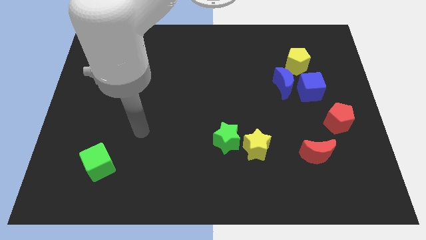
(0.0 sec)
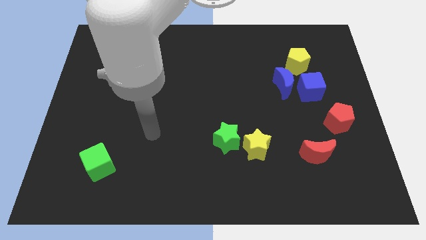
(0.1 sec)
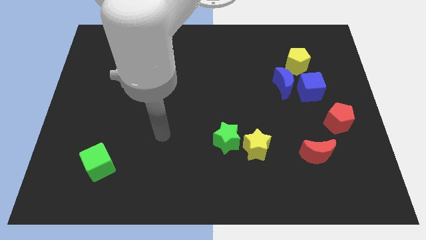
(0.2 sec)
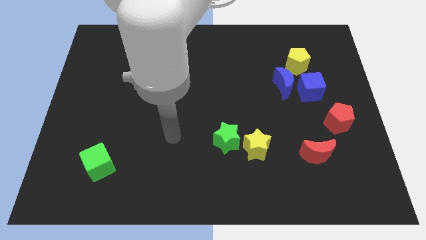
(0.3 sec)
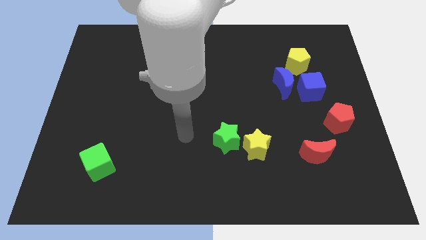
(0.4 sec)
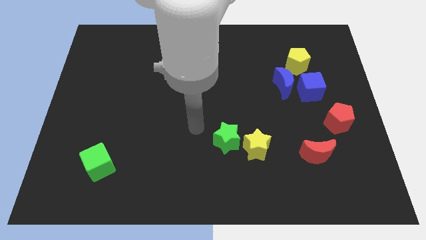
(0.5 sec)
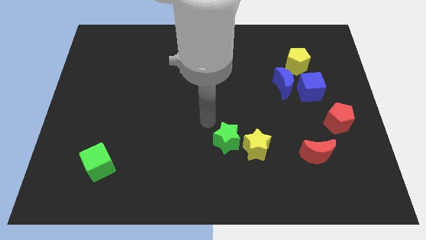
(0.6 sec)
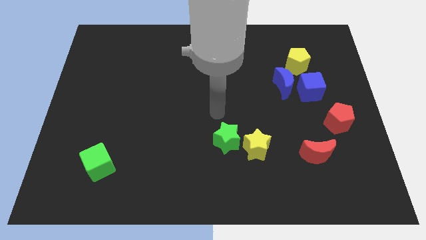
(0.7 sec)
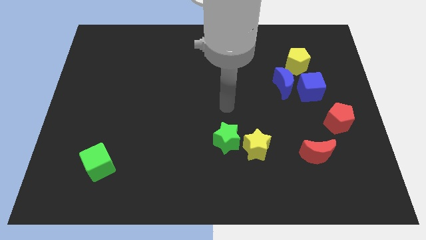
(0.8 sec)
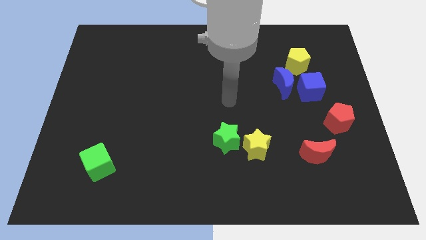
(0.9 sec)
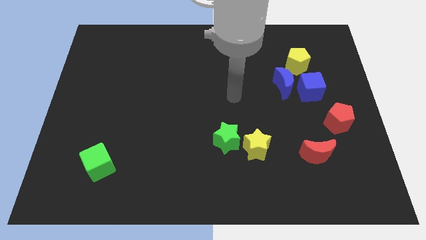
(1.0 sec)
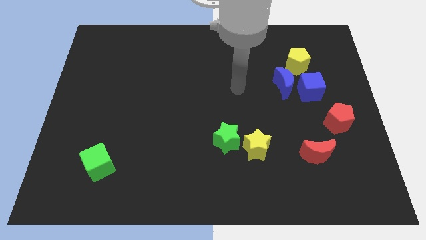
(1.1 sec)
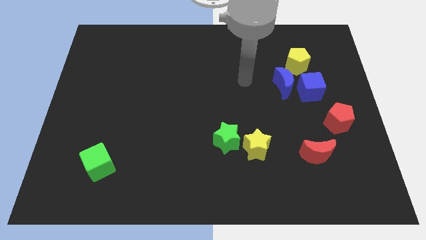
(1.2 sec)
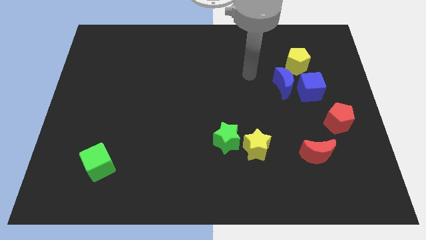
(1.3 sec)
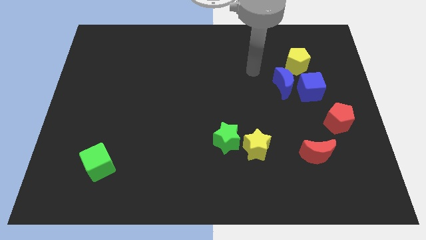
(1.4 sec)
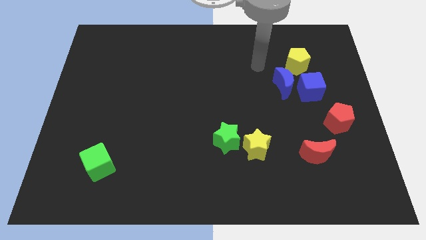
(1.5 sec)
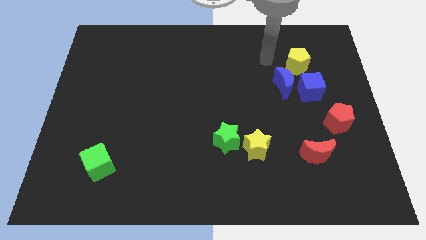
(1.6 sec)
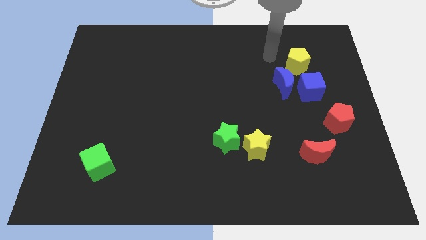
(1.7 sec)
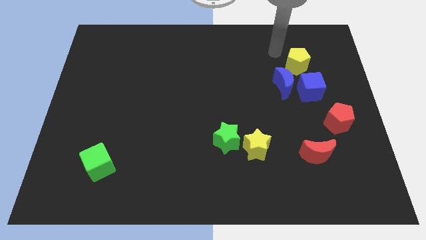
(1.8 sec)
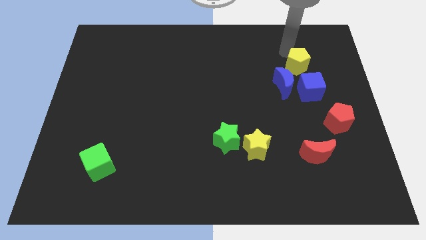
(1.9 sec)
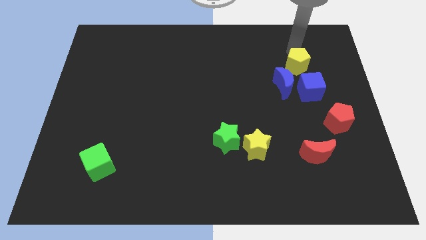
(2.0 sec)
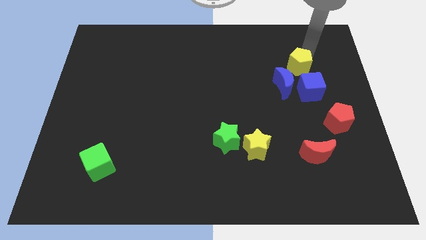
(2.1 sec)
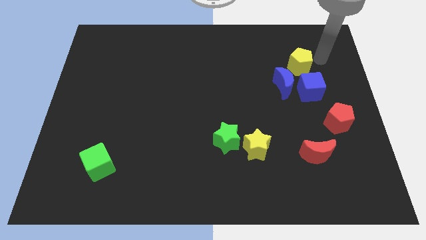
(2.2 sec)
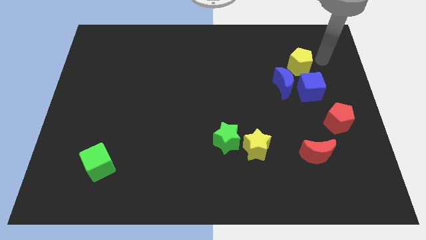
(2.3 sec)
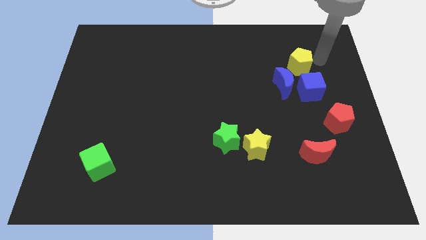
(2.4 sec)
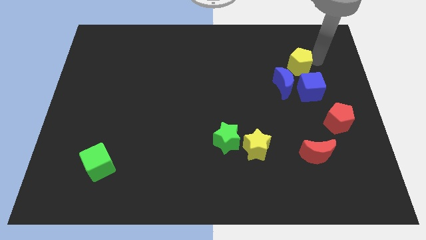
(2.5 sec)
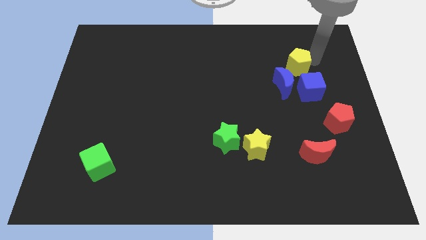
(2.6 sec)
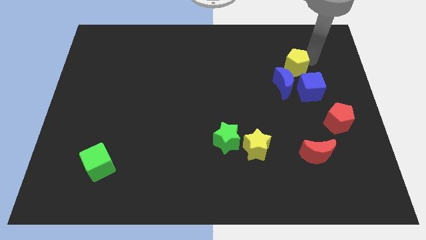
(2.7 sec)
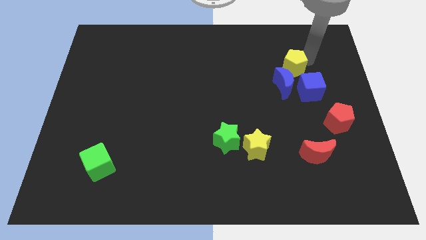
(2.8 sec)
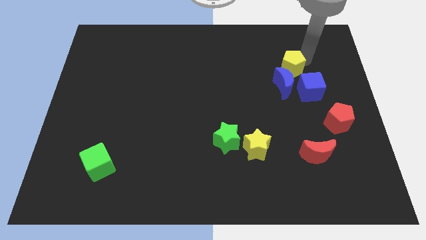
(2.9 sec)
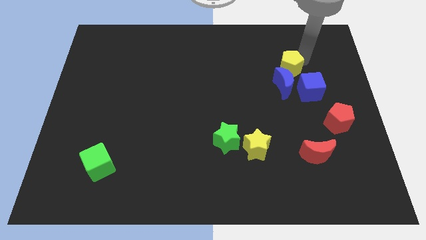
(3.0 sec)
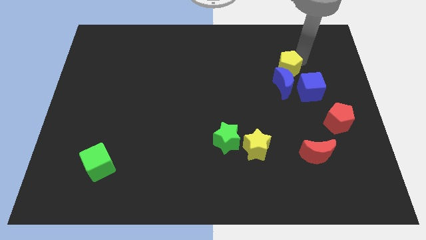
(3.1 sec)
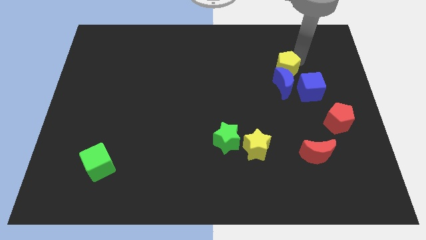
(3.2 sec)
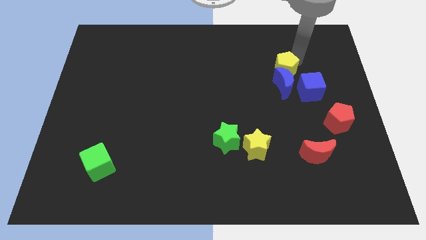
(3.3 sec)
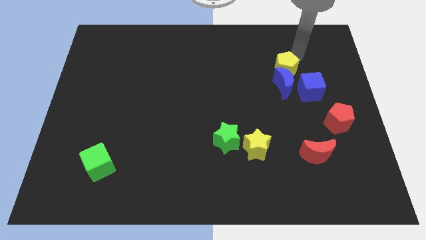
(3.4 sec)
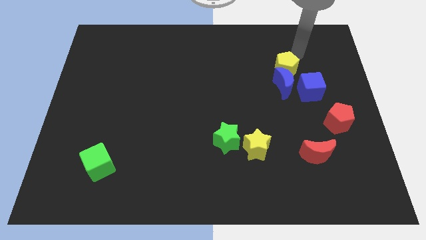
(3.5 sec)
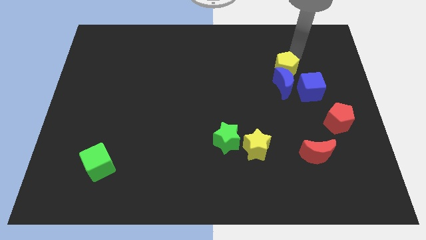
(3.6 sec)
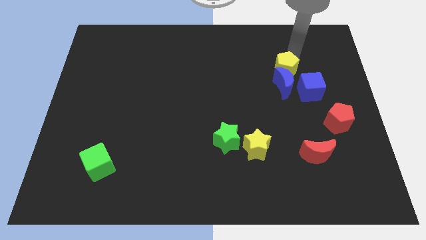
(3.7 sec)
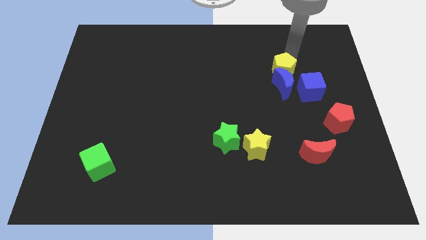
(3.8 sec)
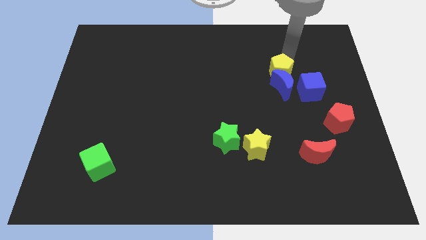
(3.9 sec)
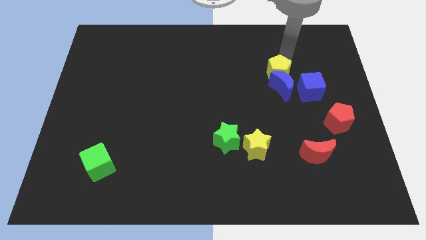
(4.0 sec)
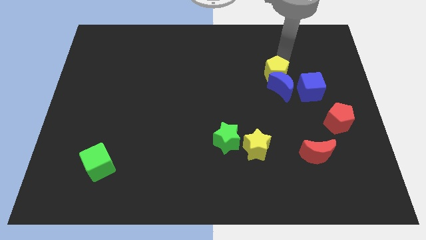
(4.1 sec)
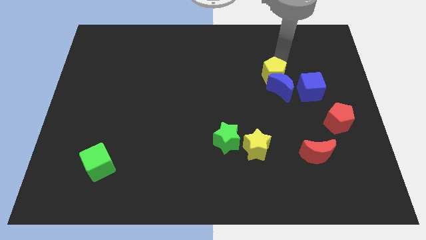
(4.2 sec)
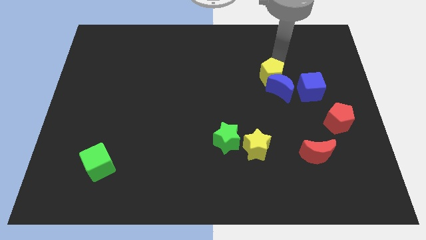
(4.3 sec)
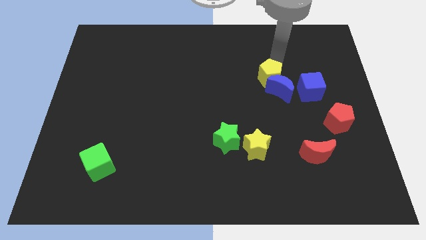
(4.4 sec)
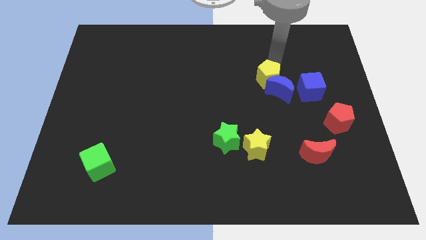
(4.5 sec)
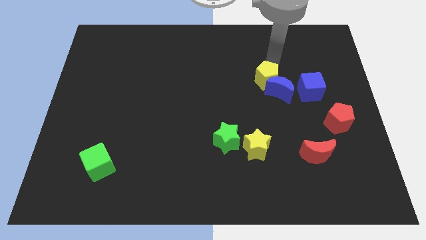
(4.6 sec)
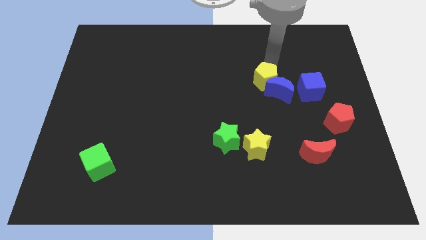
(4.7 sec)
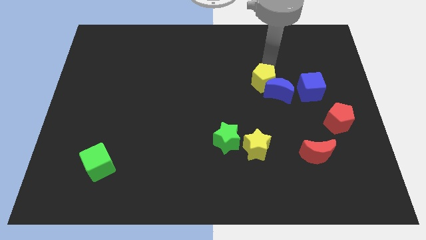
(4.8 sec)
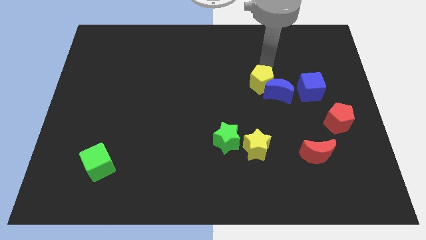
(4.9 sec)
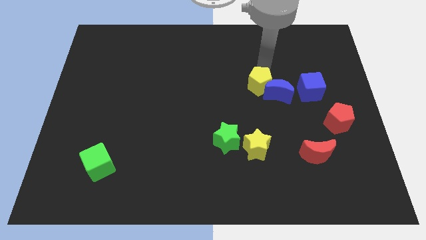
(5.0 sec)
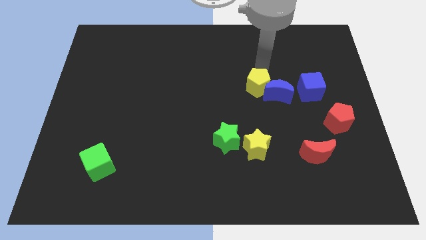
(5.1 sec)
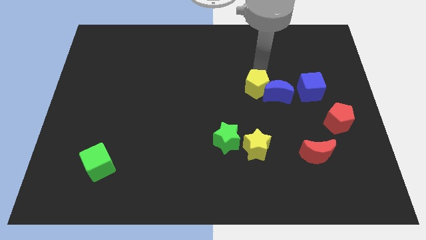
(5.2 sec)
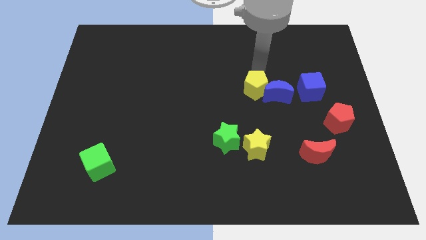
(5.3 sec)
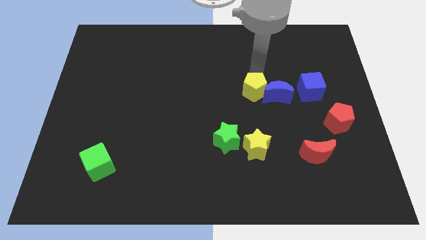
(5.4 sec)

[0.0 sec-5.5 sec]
slide the yellow pentagon to the top side of the yellow star

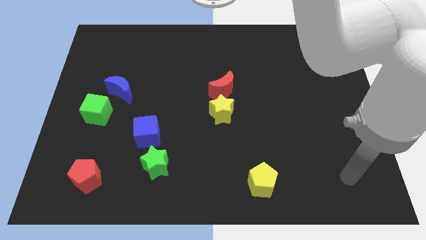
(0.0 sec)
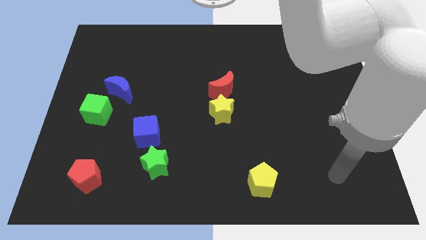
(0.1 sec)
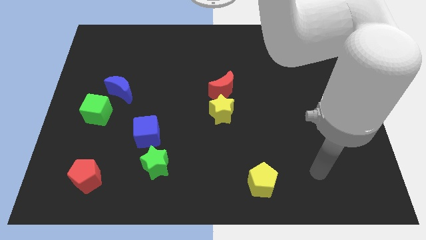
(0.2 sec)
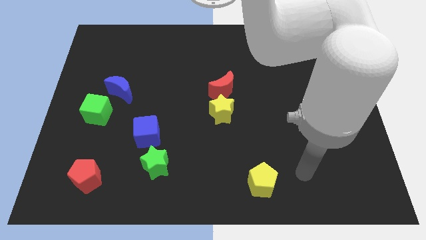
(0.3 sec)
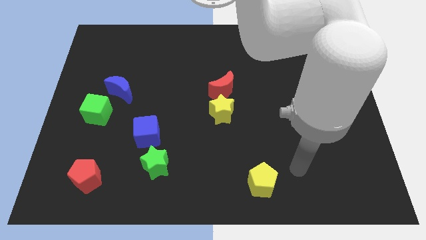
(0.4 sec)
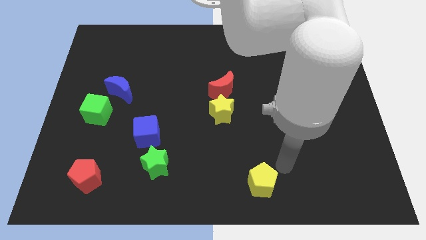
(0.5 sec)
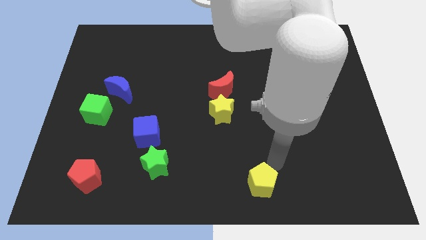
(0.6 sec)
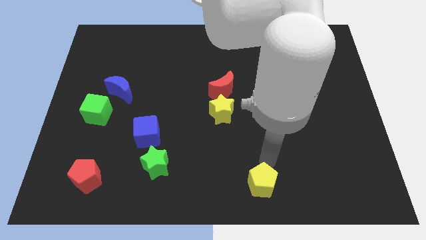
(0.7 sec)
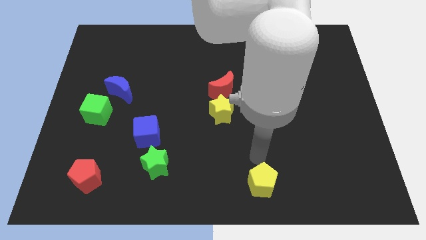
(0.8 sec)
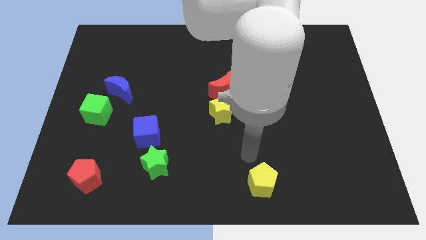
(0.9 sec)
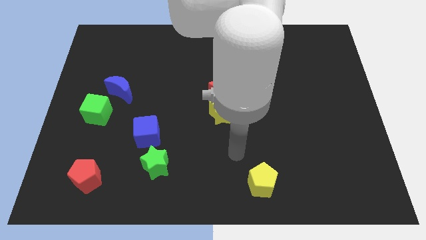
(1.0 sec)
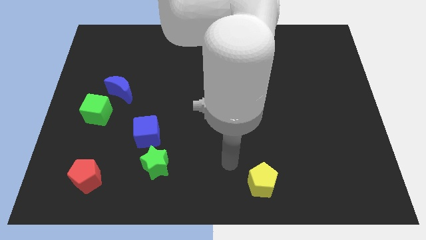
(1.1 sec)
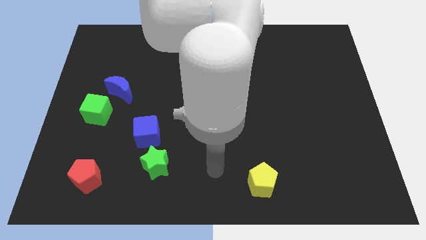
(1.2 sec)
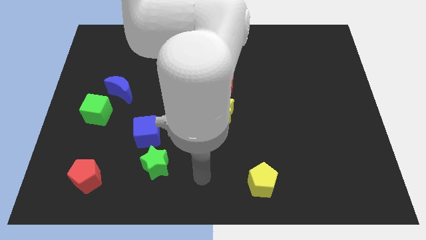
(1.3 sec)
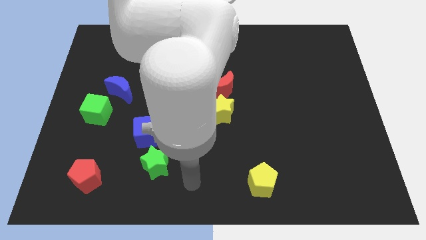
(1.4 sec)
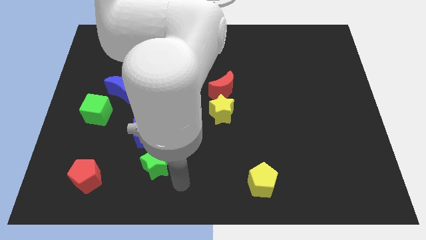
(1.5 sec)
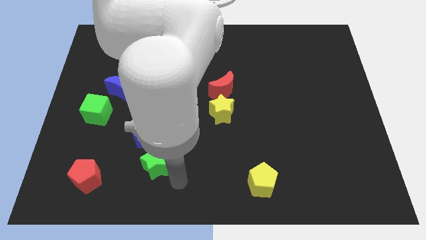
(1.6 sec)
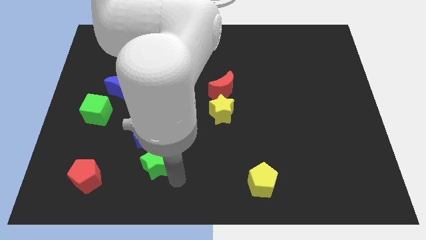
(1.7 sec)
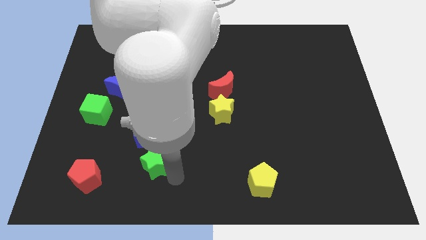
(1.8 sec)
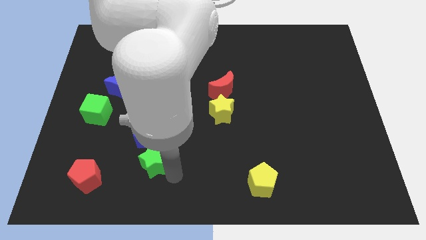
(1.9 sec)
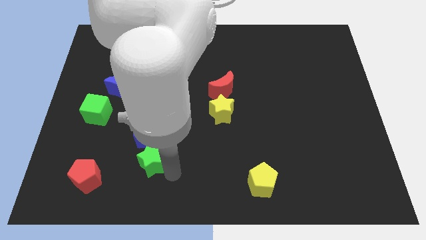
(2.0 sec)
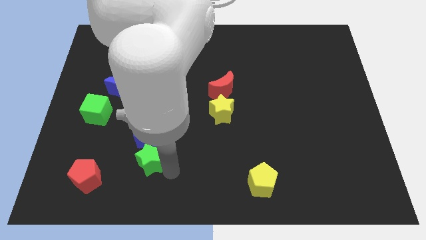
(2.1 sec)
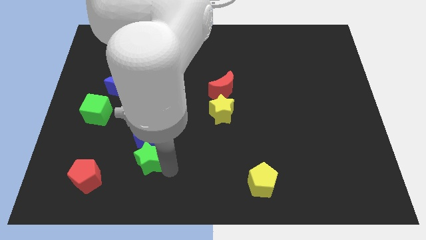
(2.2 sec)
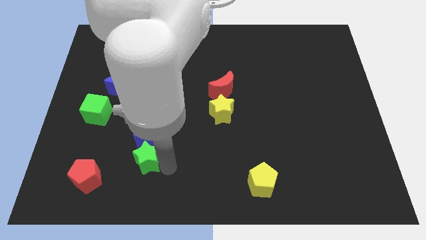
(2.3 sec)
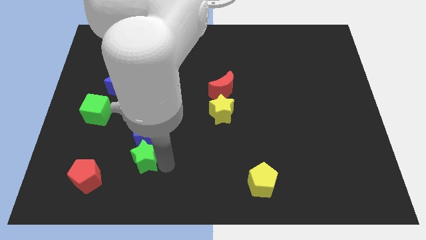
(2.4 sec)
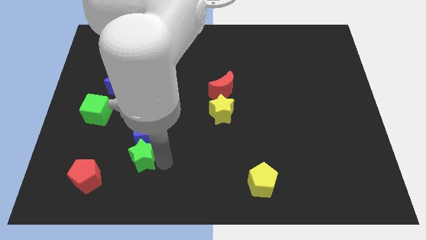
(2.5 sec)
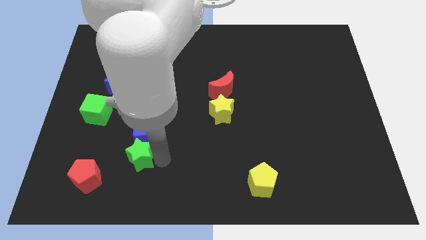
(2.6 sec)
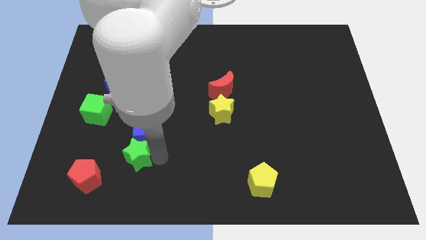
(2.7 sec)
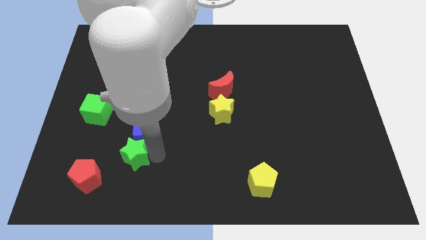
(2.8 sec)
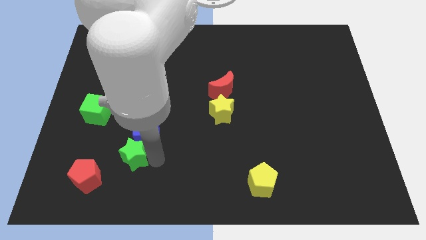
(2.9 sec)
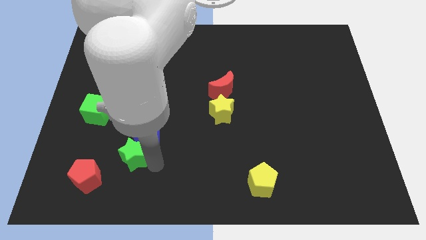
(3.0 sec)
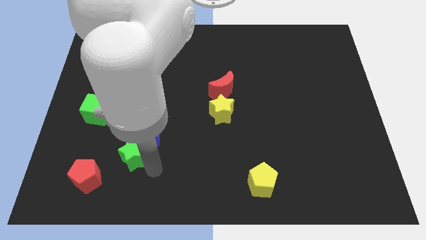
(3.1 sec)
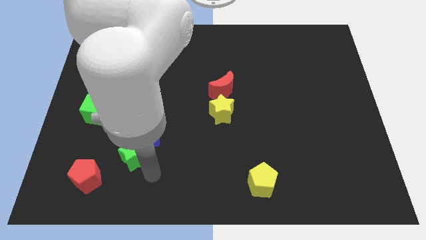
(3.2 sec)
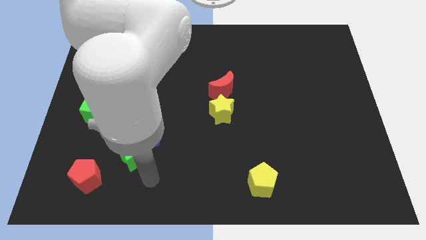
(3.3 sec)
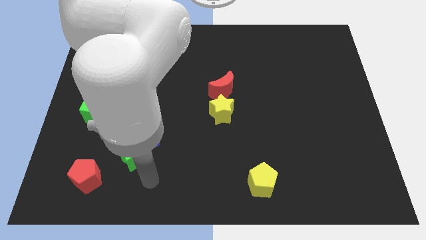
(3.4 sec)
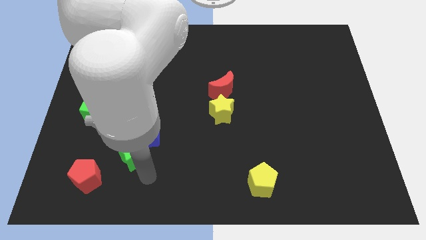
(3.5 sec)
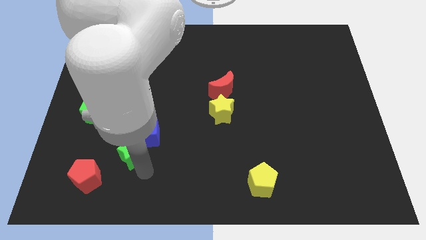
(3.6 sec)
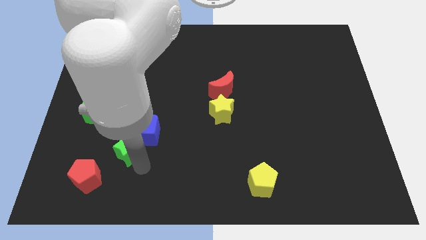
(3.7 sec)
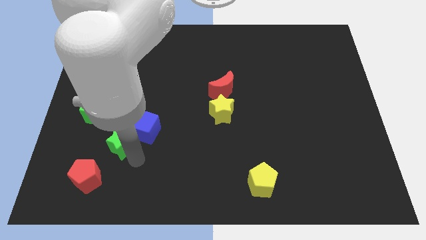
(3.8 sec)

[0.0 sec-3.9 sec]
push the green star below the blue moon
